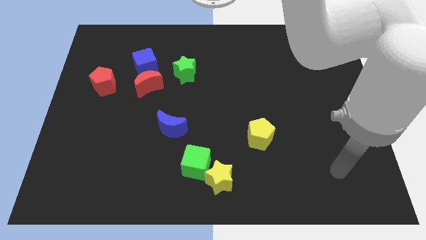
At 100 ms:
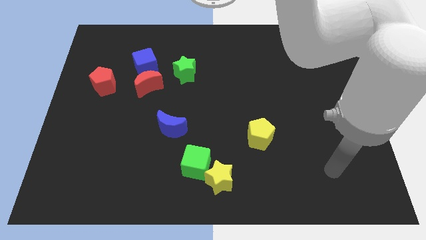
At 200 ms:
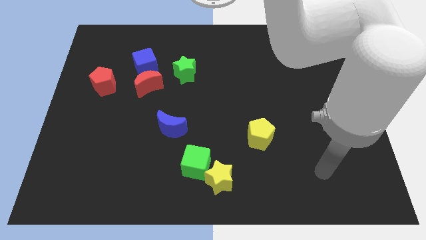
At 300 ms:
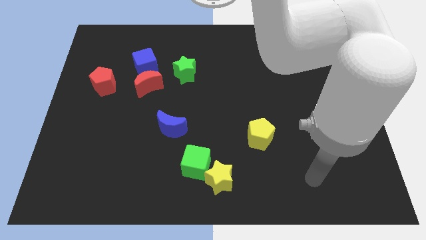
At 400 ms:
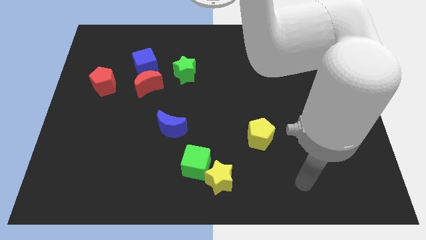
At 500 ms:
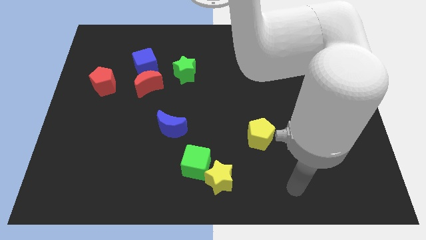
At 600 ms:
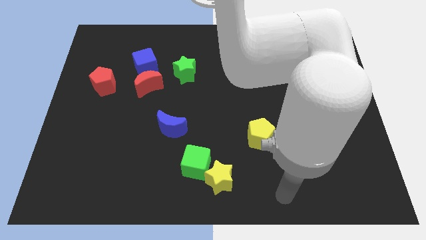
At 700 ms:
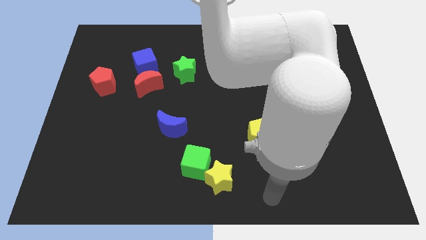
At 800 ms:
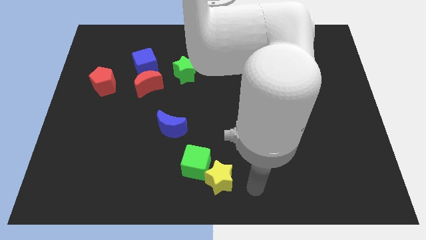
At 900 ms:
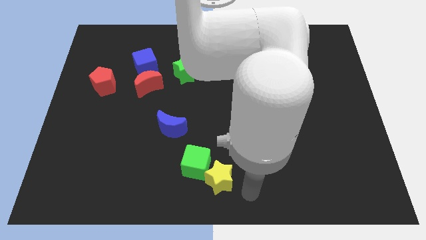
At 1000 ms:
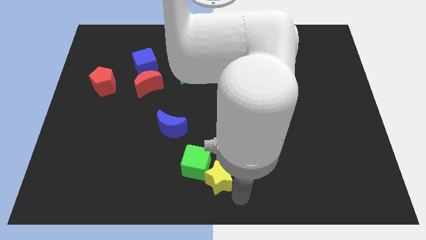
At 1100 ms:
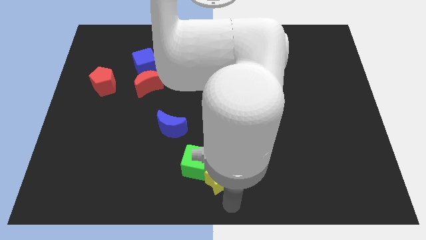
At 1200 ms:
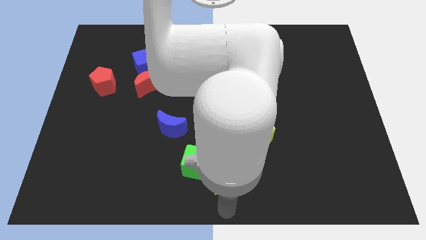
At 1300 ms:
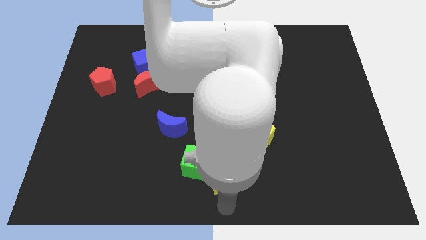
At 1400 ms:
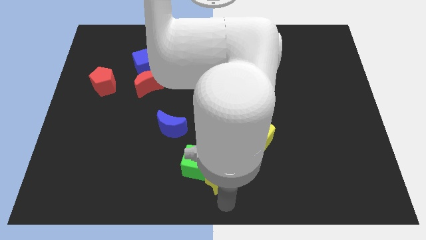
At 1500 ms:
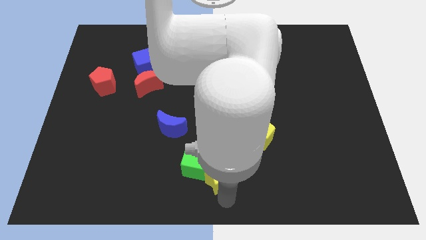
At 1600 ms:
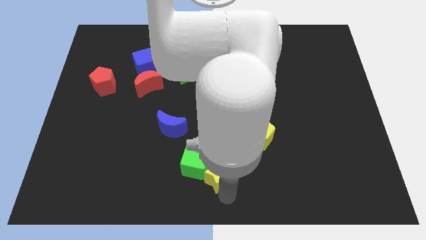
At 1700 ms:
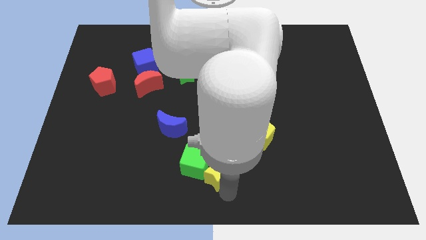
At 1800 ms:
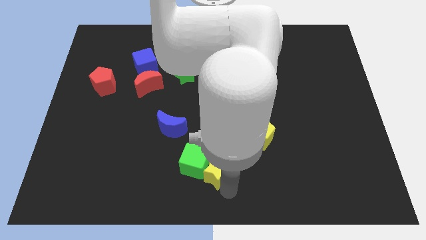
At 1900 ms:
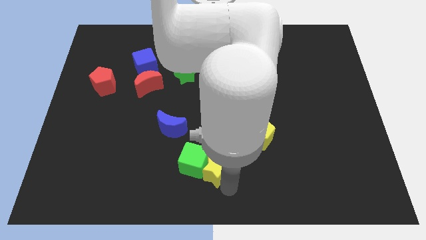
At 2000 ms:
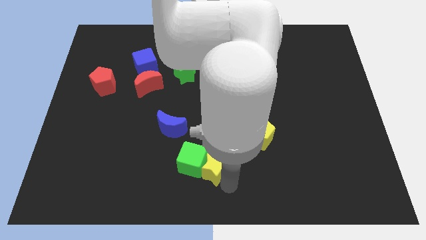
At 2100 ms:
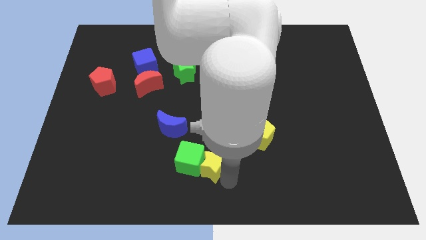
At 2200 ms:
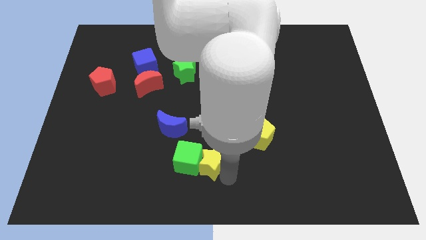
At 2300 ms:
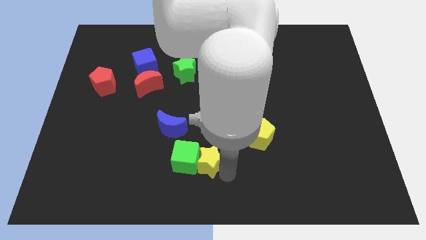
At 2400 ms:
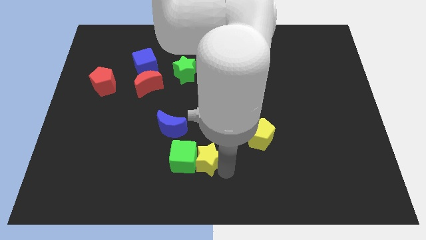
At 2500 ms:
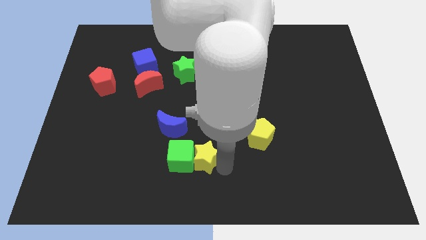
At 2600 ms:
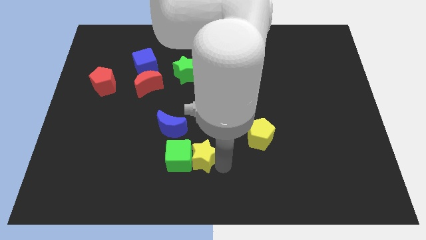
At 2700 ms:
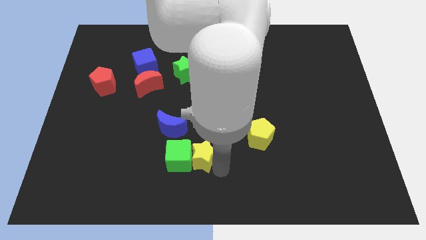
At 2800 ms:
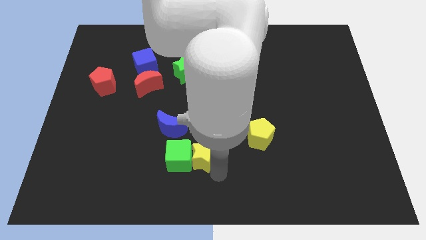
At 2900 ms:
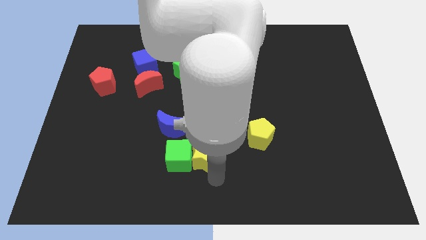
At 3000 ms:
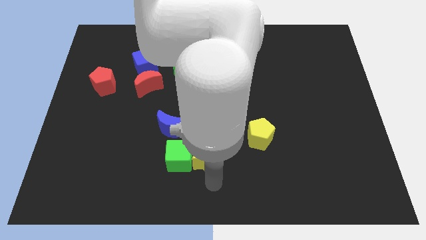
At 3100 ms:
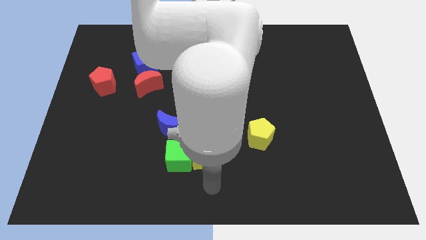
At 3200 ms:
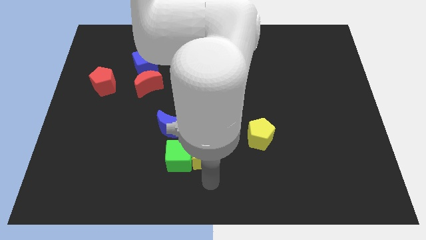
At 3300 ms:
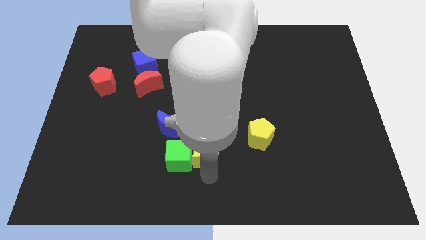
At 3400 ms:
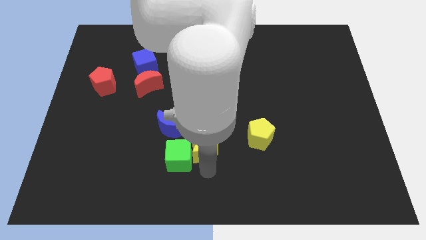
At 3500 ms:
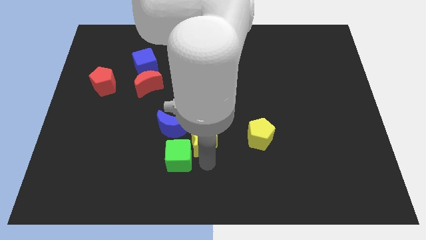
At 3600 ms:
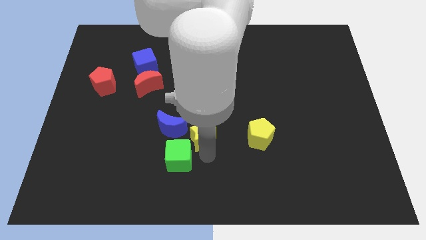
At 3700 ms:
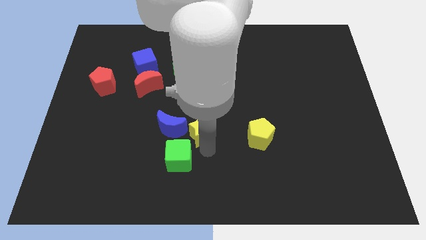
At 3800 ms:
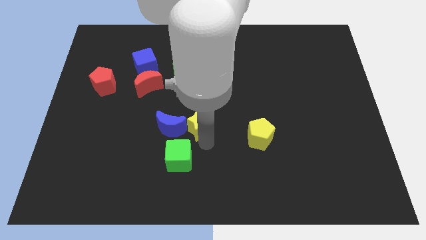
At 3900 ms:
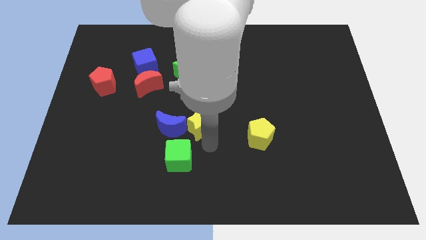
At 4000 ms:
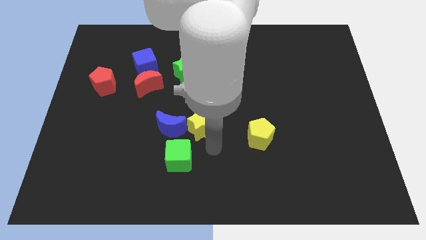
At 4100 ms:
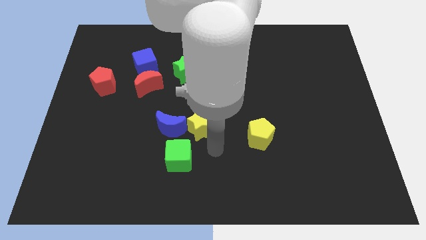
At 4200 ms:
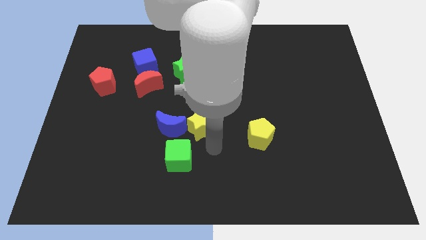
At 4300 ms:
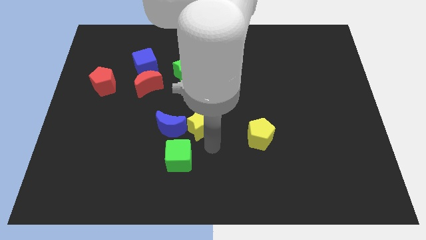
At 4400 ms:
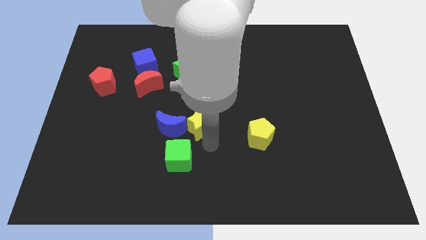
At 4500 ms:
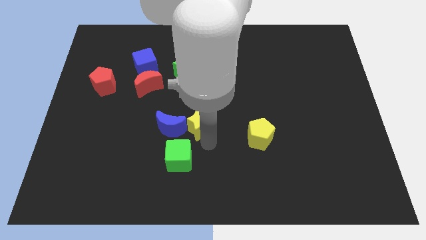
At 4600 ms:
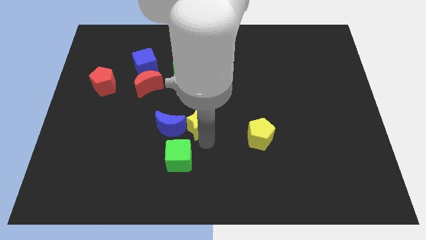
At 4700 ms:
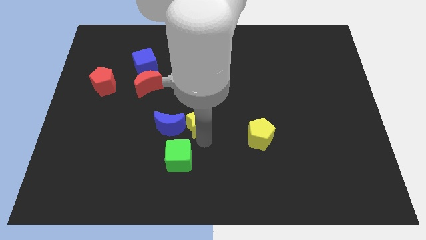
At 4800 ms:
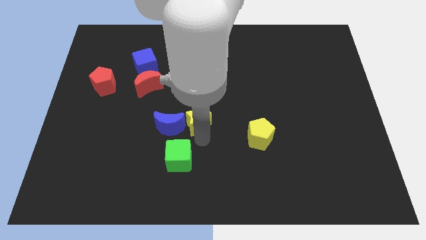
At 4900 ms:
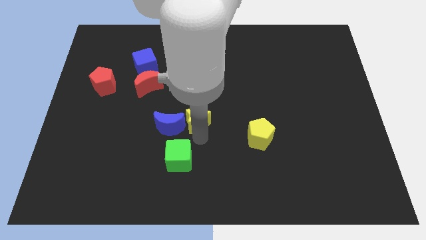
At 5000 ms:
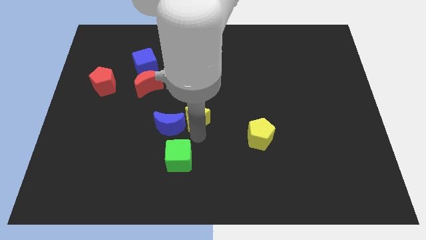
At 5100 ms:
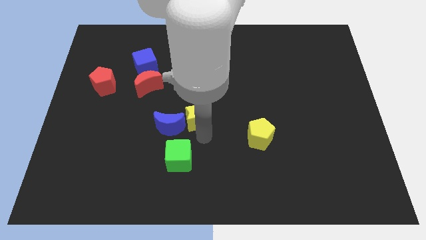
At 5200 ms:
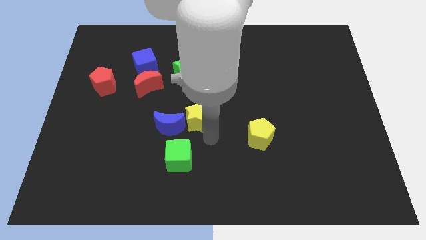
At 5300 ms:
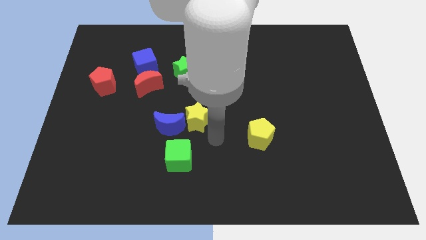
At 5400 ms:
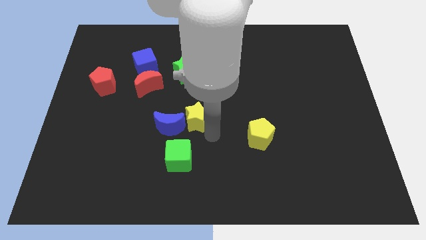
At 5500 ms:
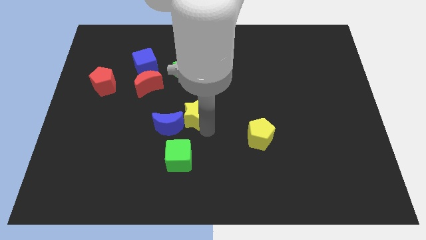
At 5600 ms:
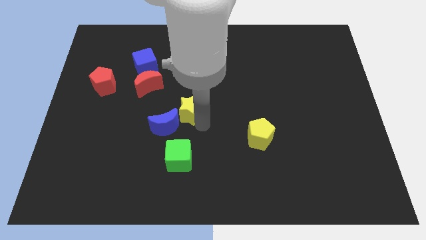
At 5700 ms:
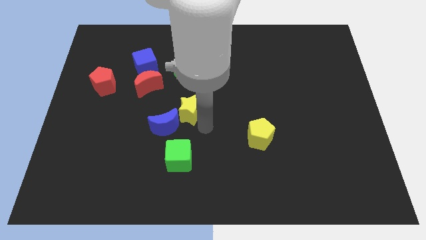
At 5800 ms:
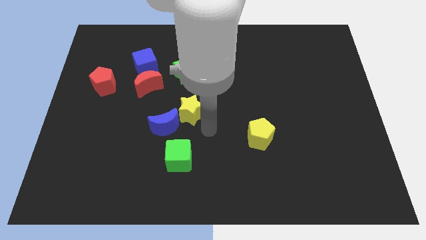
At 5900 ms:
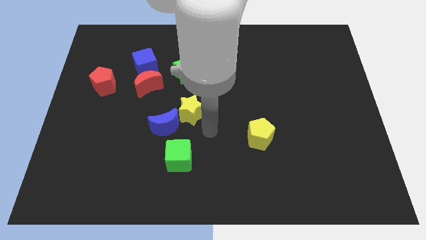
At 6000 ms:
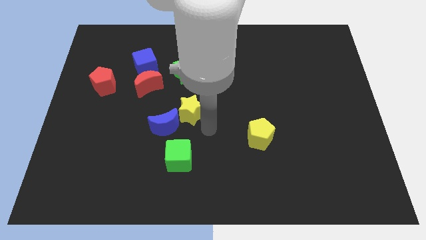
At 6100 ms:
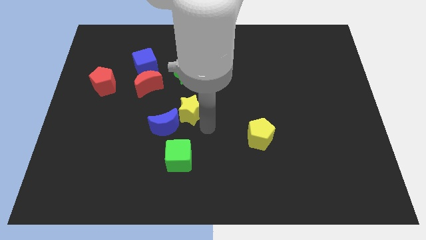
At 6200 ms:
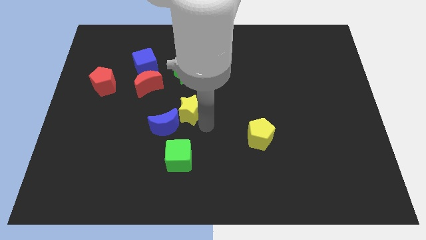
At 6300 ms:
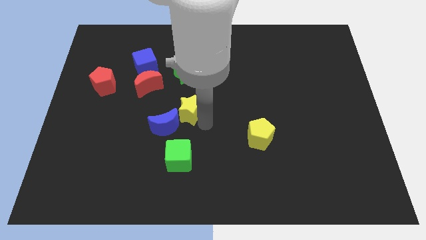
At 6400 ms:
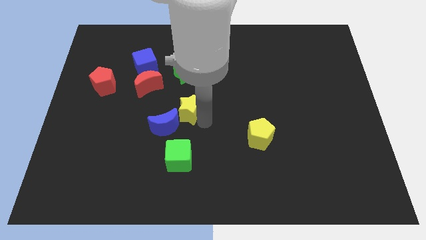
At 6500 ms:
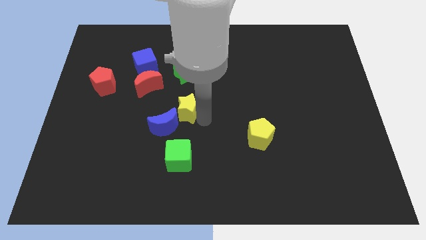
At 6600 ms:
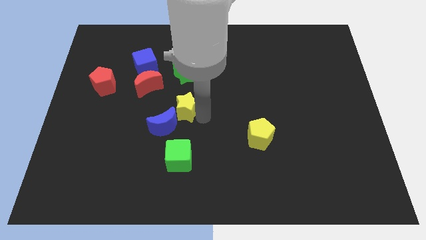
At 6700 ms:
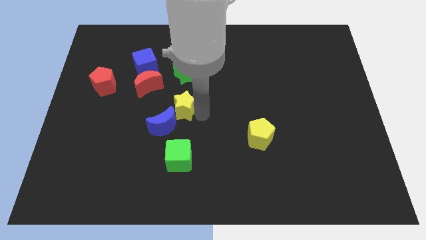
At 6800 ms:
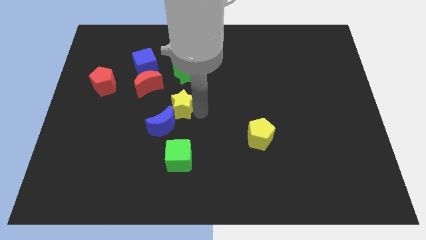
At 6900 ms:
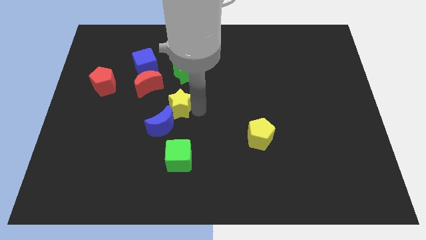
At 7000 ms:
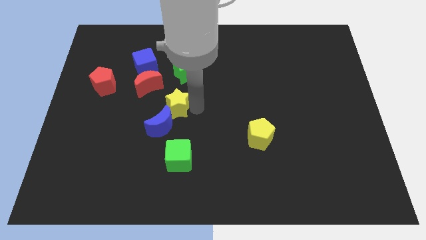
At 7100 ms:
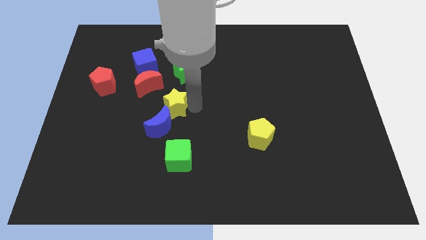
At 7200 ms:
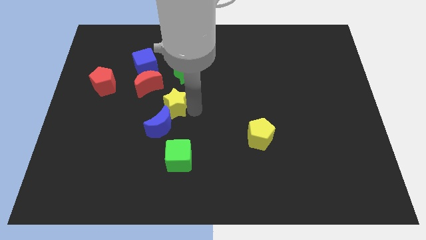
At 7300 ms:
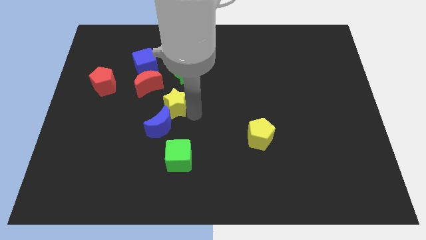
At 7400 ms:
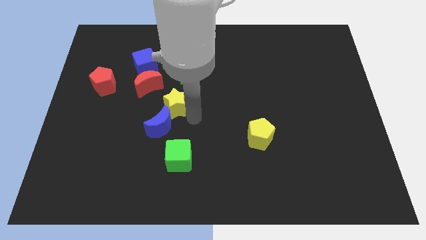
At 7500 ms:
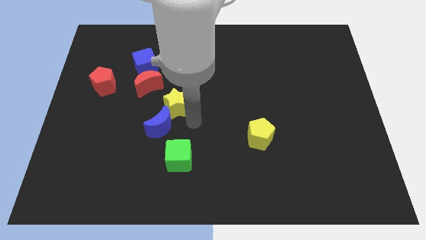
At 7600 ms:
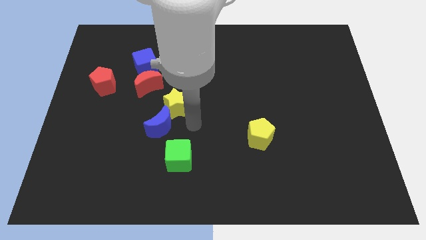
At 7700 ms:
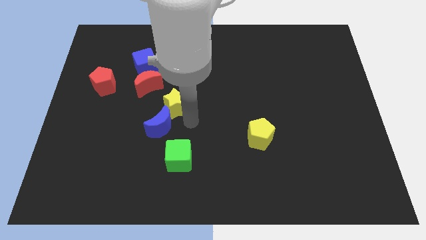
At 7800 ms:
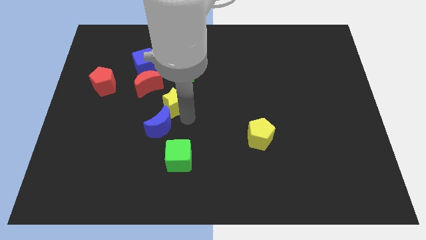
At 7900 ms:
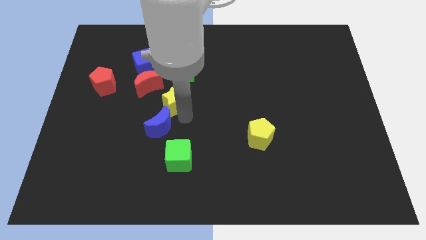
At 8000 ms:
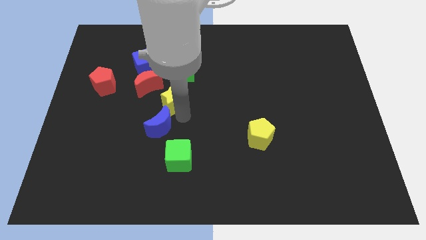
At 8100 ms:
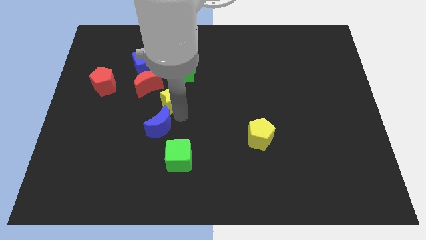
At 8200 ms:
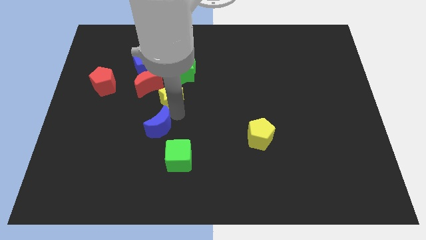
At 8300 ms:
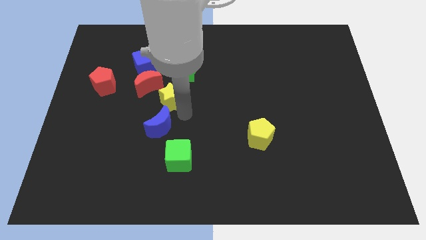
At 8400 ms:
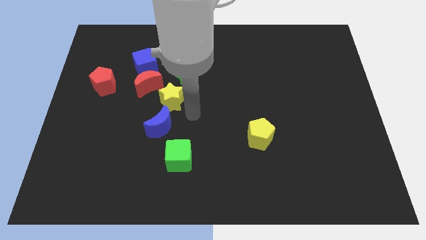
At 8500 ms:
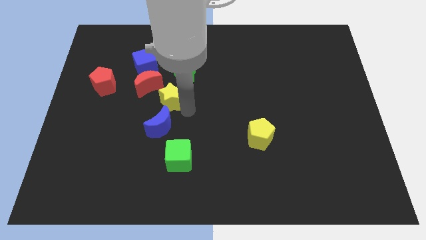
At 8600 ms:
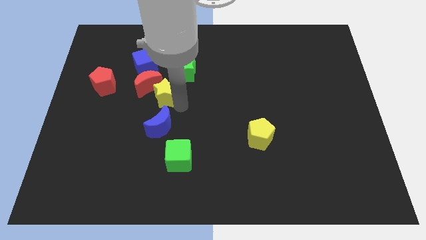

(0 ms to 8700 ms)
push the yellow star to the red moon
